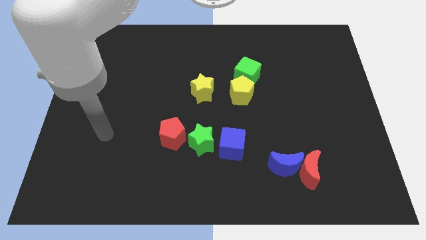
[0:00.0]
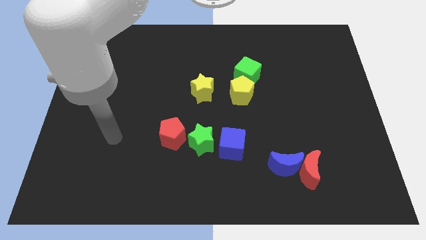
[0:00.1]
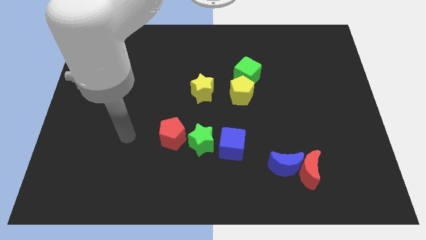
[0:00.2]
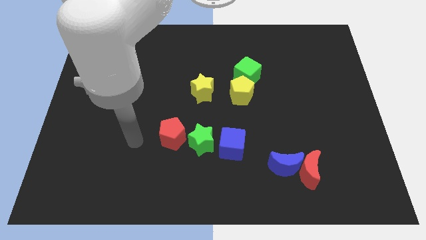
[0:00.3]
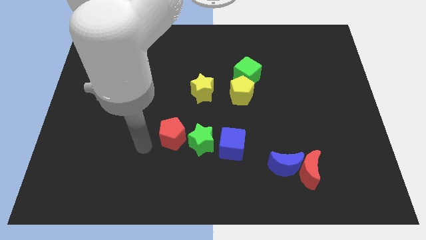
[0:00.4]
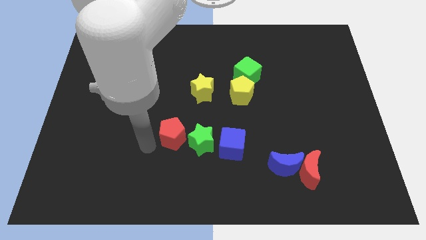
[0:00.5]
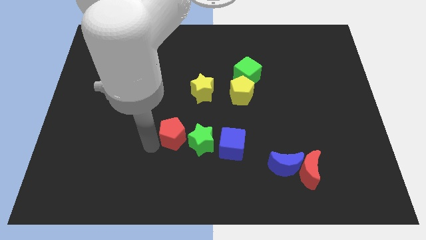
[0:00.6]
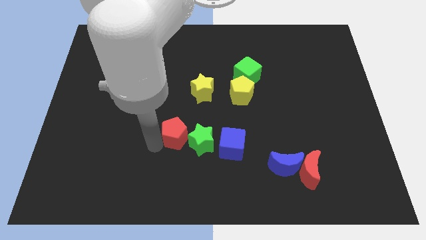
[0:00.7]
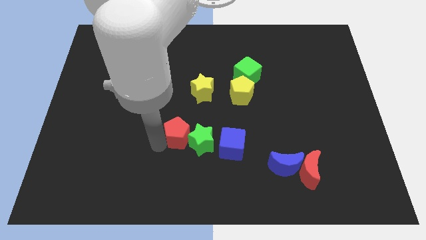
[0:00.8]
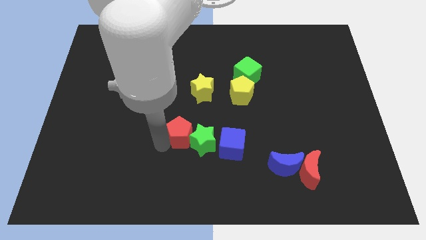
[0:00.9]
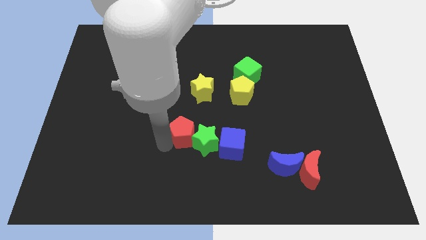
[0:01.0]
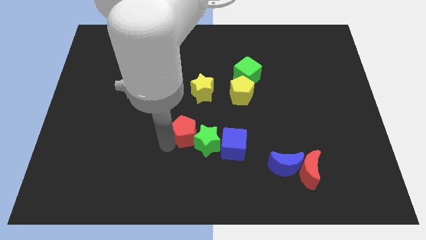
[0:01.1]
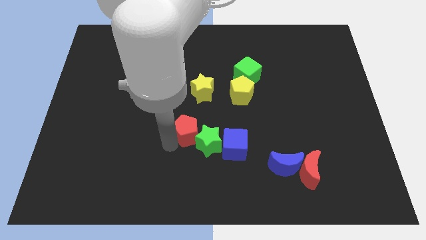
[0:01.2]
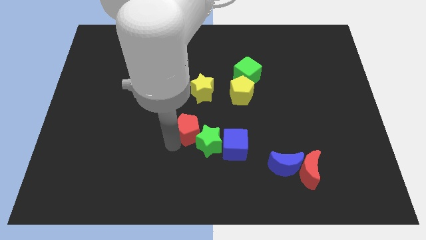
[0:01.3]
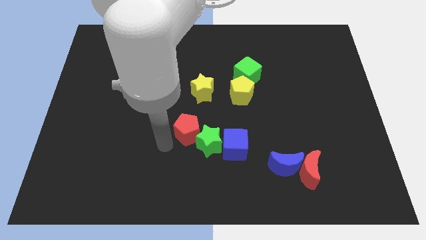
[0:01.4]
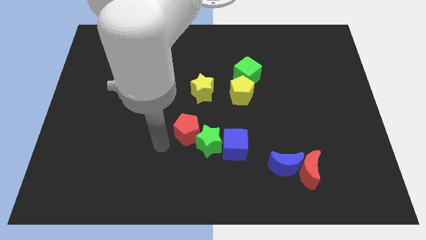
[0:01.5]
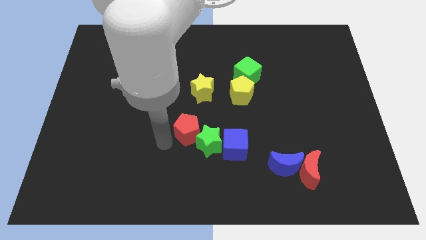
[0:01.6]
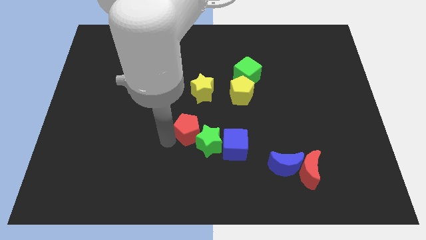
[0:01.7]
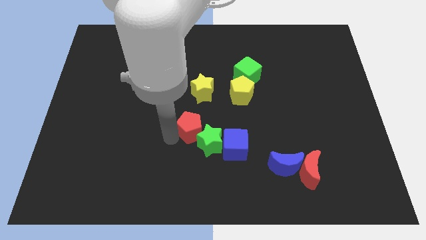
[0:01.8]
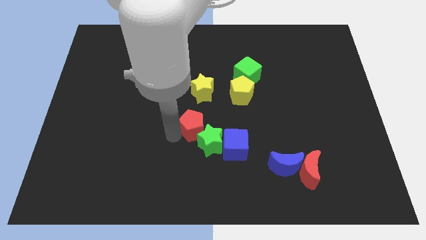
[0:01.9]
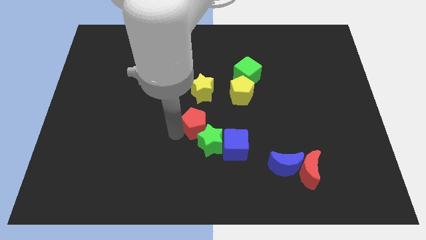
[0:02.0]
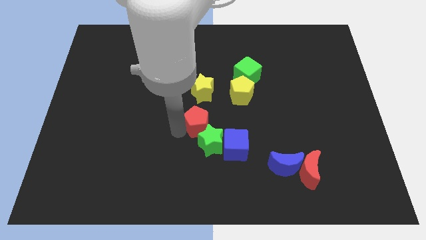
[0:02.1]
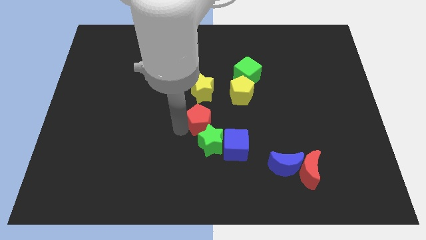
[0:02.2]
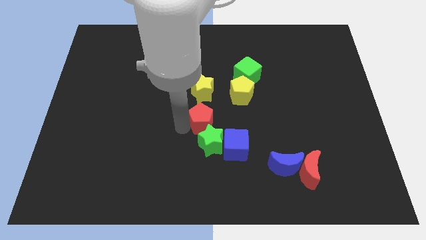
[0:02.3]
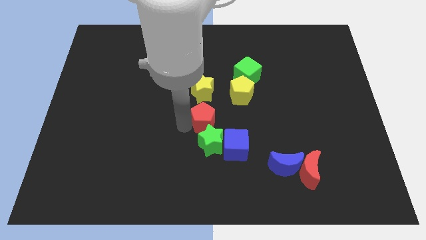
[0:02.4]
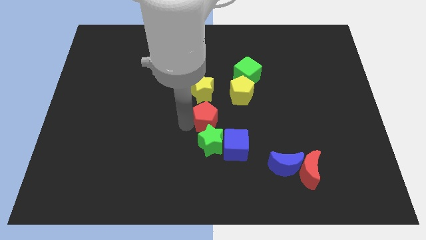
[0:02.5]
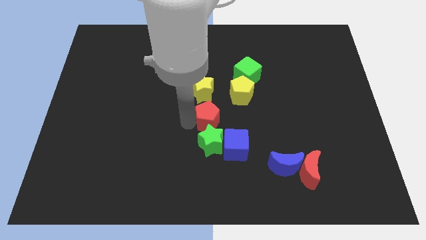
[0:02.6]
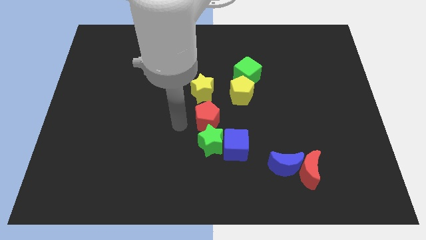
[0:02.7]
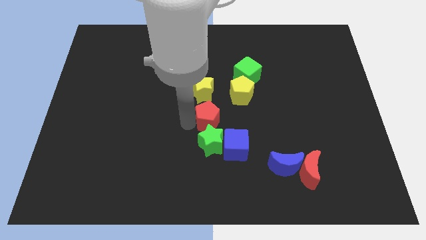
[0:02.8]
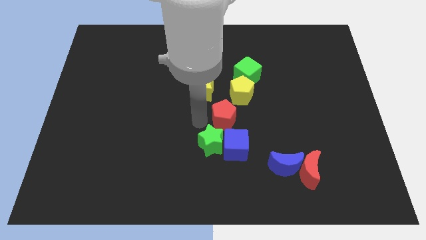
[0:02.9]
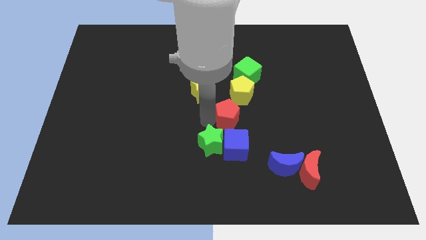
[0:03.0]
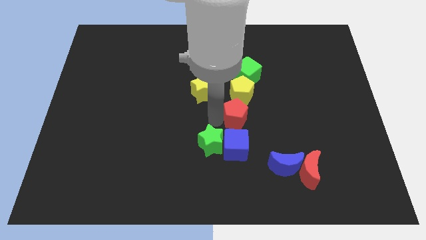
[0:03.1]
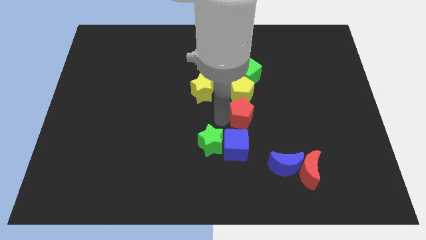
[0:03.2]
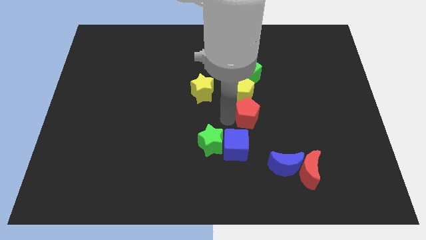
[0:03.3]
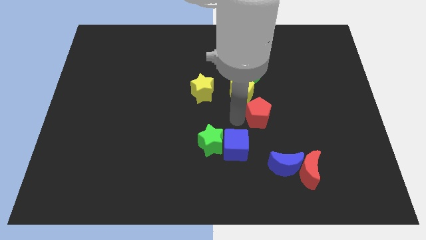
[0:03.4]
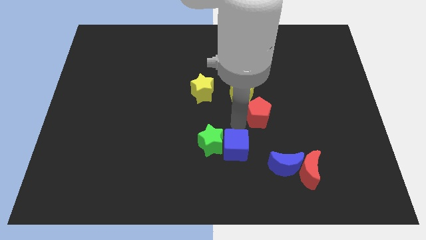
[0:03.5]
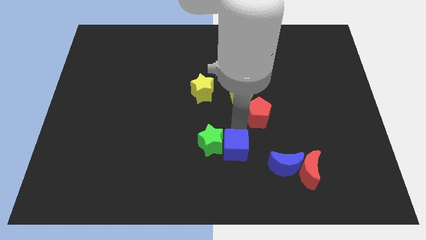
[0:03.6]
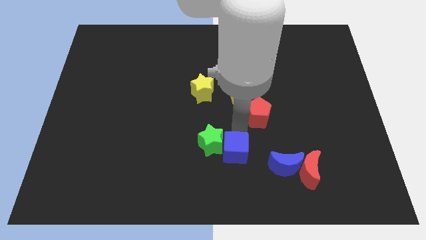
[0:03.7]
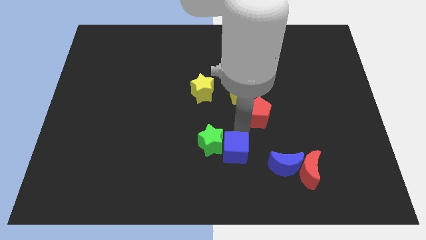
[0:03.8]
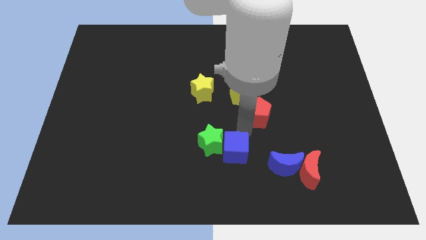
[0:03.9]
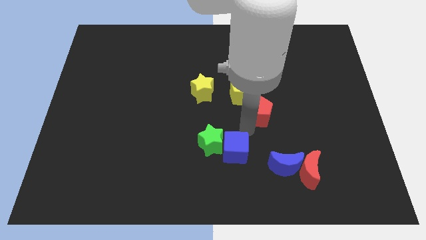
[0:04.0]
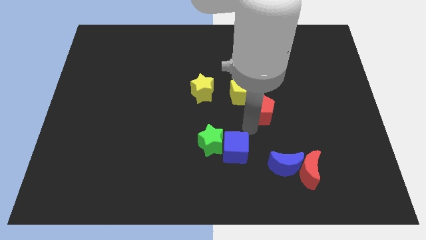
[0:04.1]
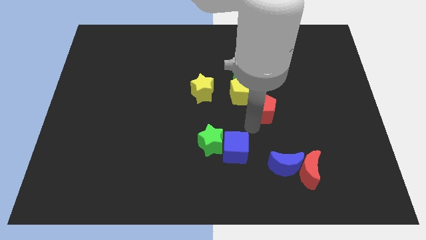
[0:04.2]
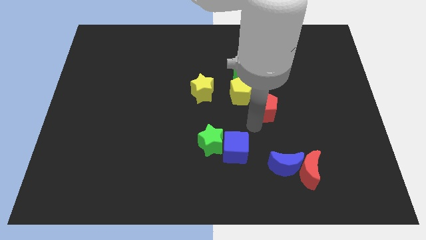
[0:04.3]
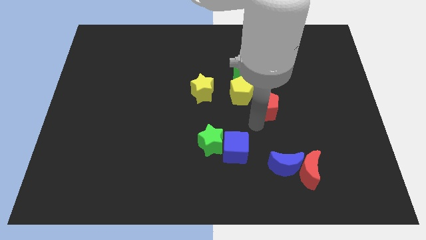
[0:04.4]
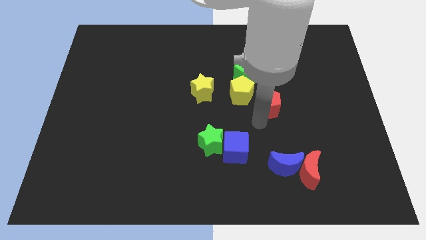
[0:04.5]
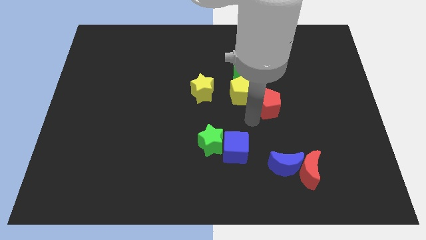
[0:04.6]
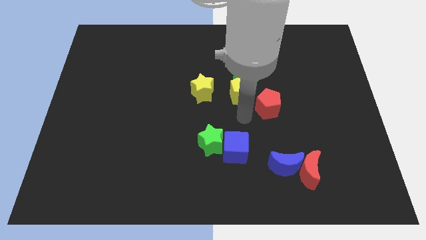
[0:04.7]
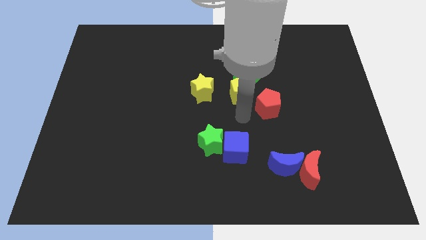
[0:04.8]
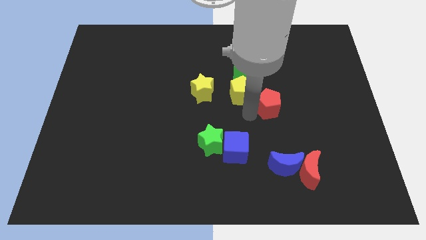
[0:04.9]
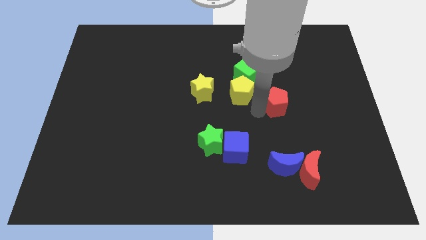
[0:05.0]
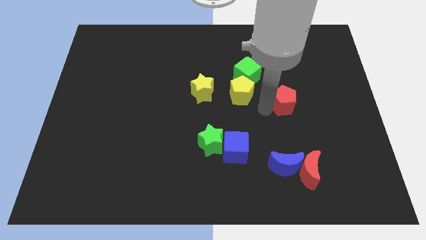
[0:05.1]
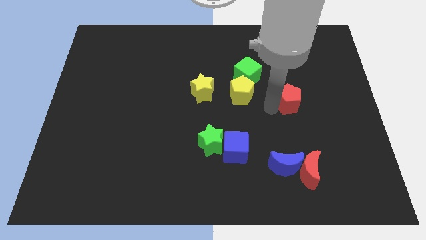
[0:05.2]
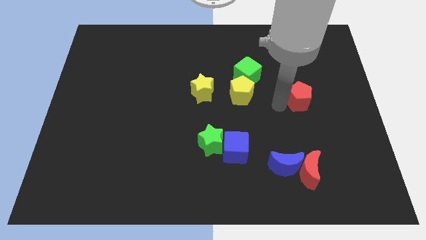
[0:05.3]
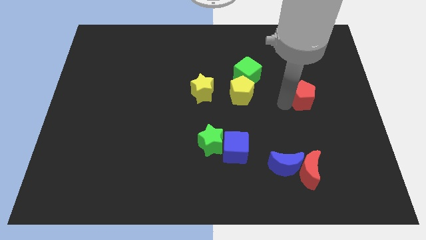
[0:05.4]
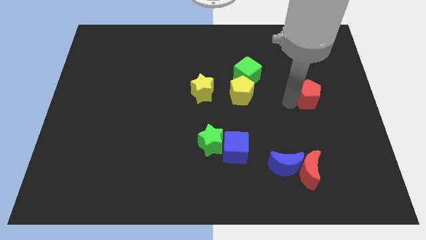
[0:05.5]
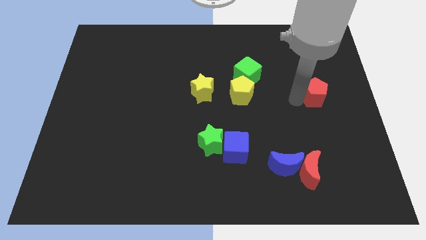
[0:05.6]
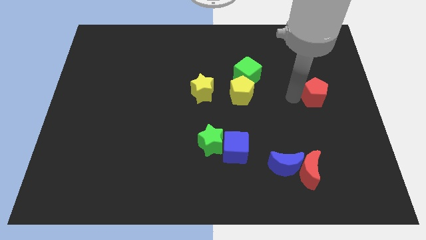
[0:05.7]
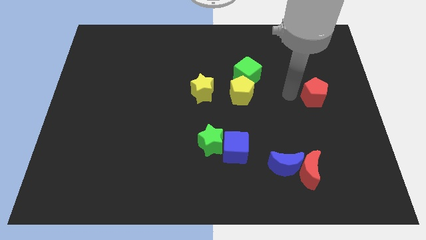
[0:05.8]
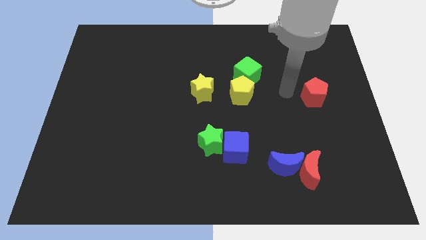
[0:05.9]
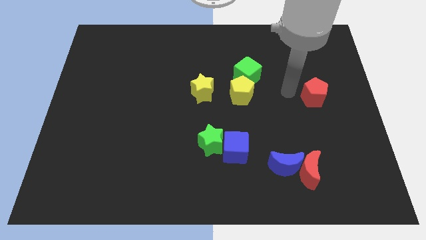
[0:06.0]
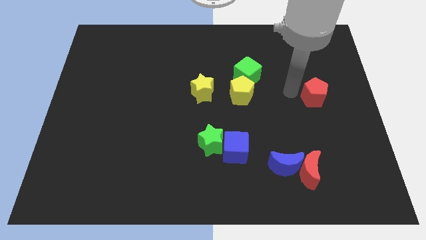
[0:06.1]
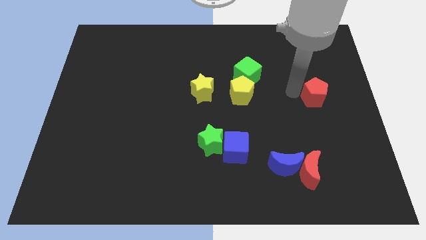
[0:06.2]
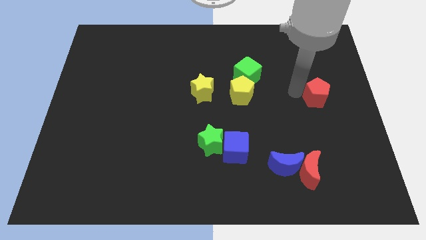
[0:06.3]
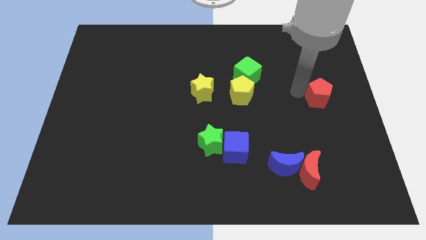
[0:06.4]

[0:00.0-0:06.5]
slide the red pentagon to the right side
